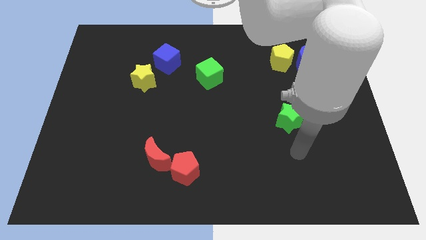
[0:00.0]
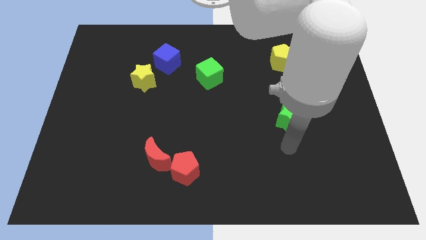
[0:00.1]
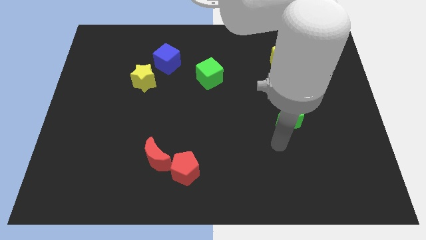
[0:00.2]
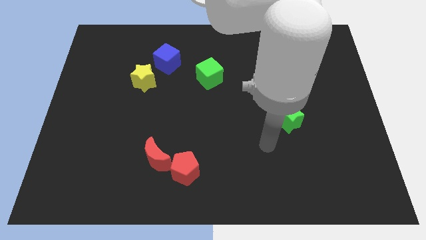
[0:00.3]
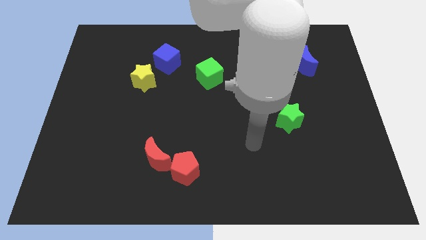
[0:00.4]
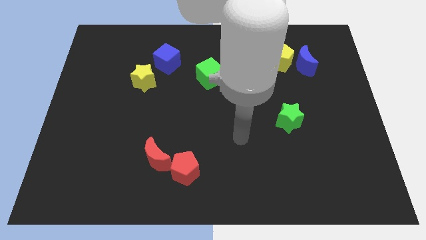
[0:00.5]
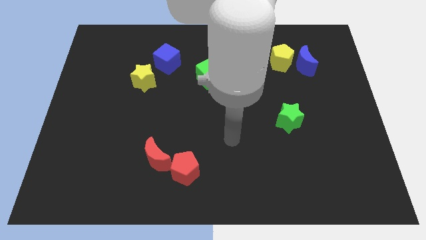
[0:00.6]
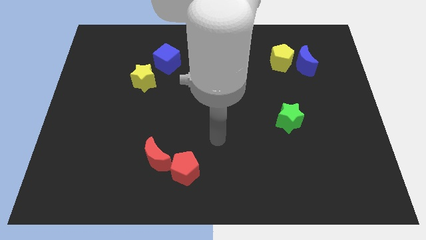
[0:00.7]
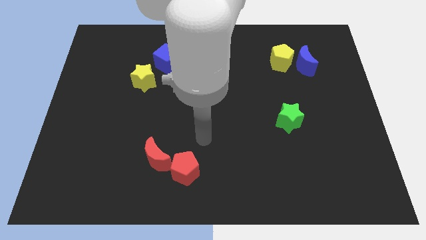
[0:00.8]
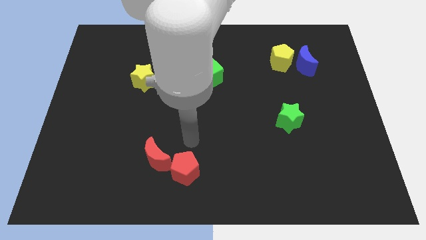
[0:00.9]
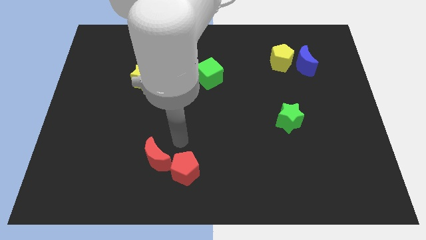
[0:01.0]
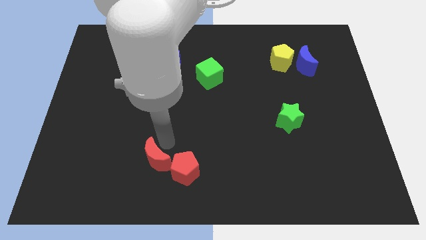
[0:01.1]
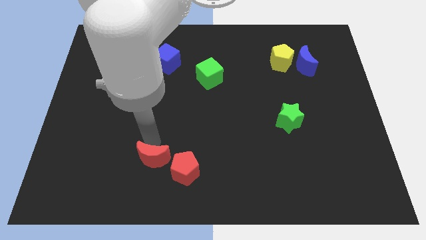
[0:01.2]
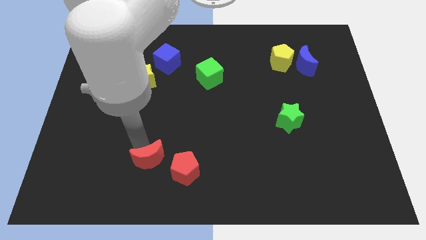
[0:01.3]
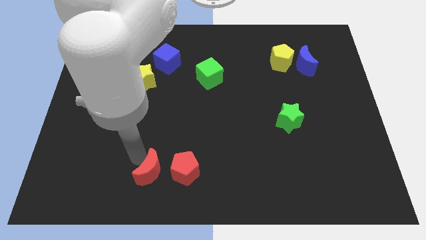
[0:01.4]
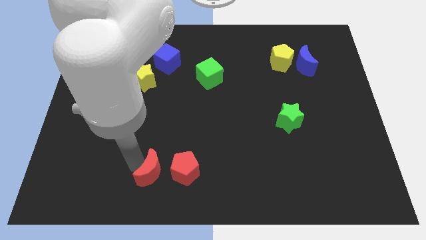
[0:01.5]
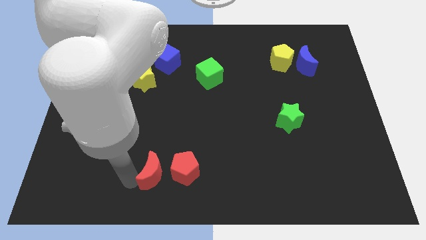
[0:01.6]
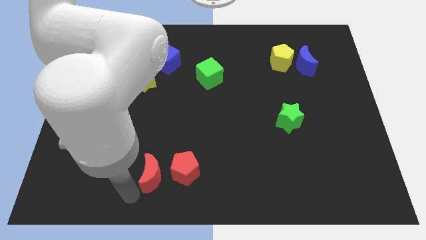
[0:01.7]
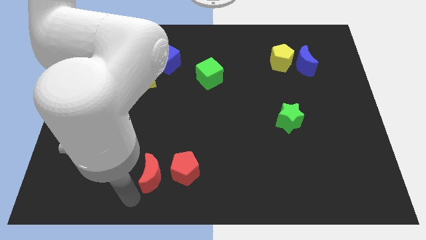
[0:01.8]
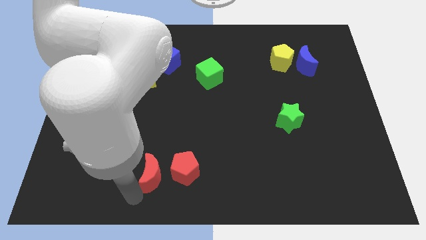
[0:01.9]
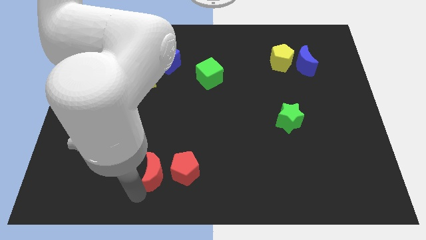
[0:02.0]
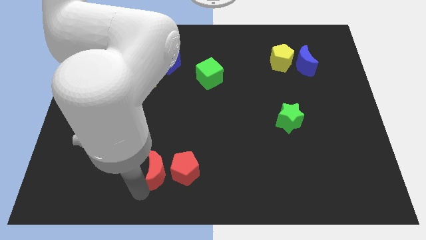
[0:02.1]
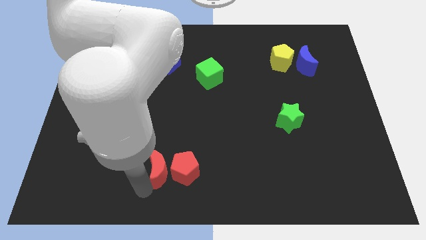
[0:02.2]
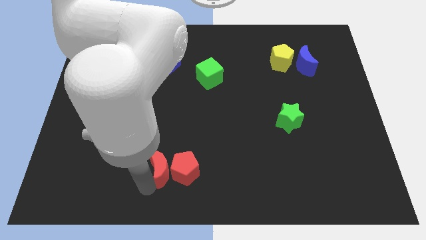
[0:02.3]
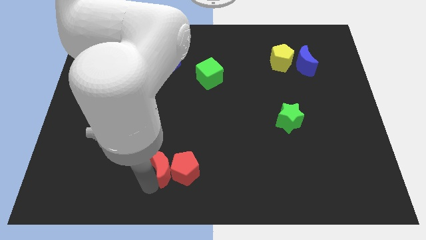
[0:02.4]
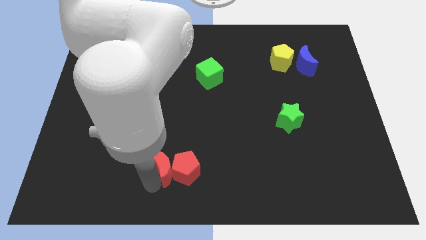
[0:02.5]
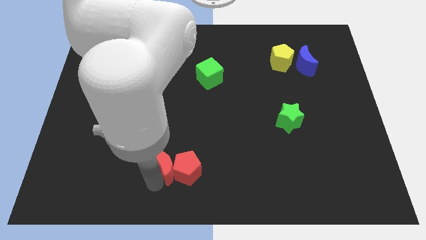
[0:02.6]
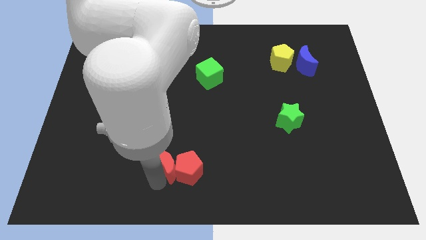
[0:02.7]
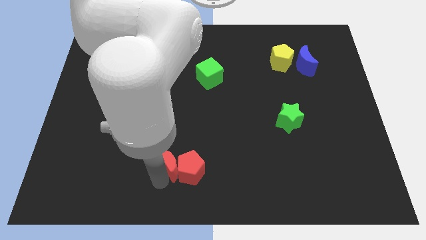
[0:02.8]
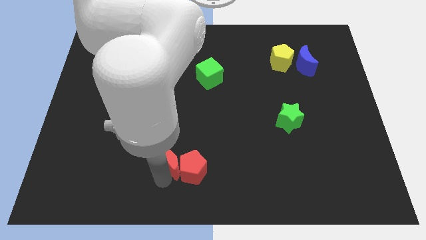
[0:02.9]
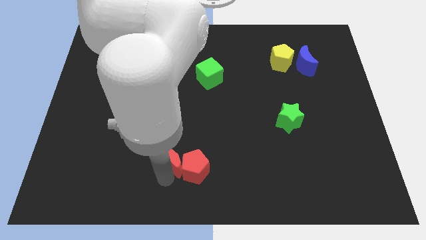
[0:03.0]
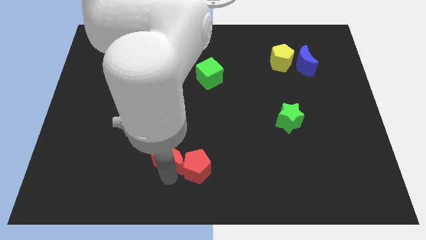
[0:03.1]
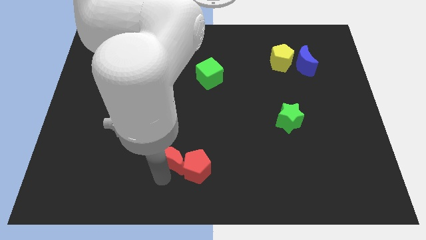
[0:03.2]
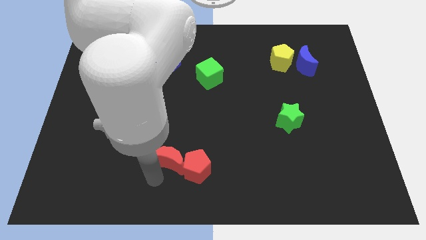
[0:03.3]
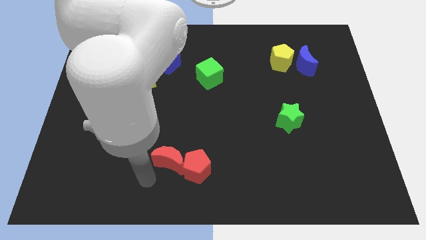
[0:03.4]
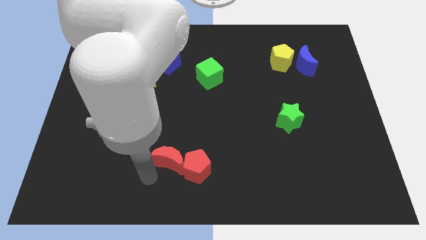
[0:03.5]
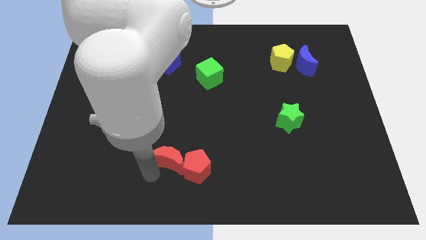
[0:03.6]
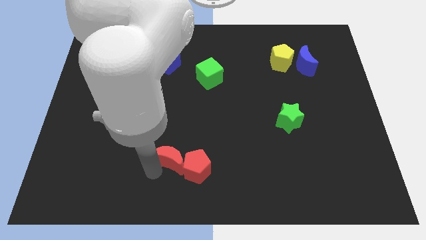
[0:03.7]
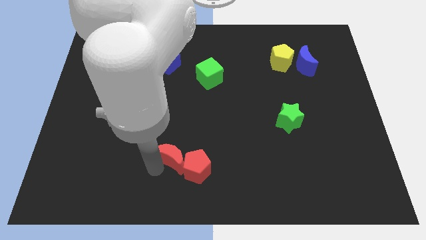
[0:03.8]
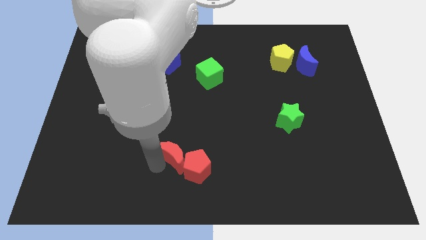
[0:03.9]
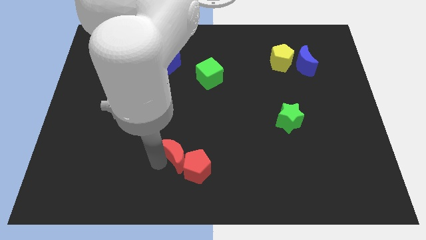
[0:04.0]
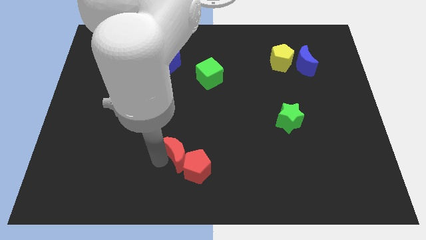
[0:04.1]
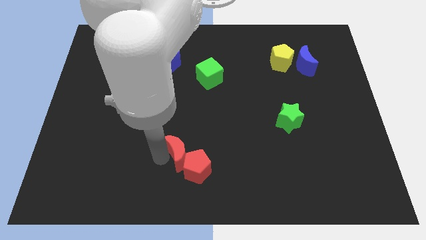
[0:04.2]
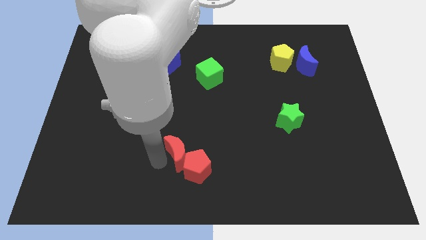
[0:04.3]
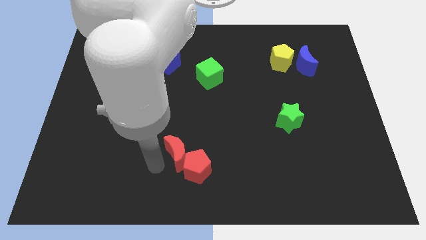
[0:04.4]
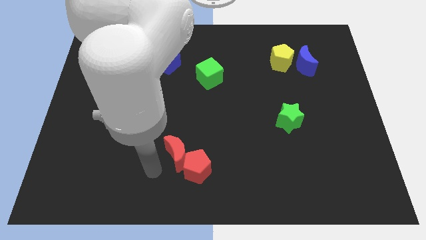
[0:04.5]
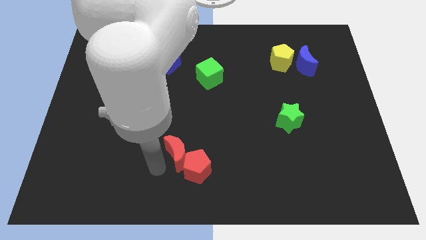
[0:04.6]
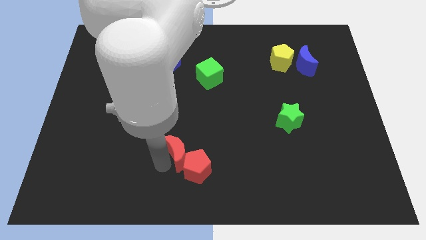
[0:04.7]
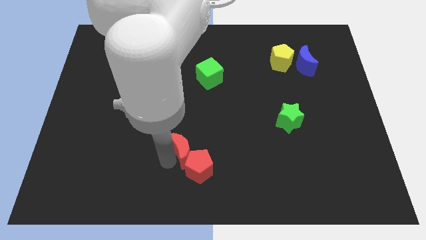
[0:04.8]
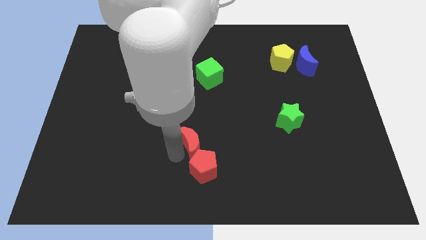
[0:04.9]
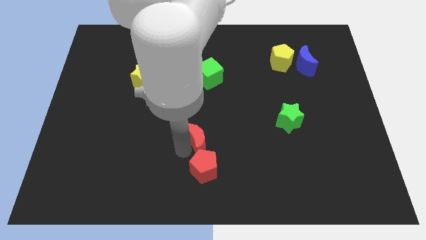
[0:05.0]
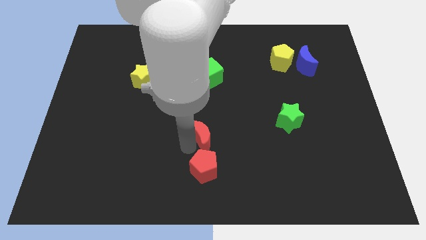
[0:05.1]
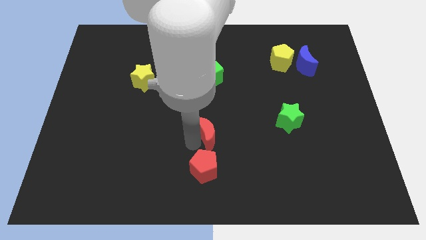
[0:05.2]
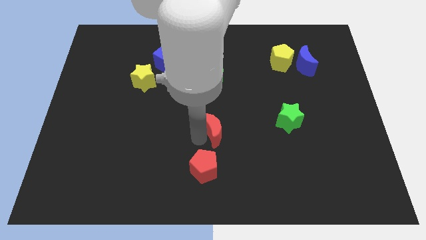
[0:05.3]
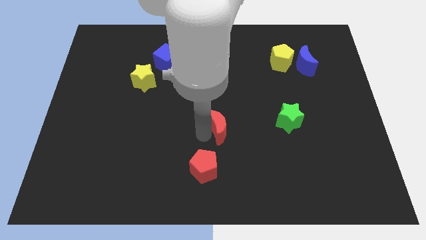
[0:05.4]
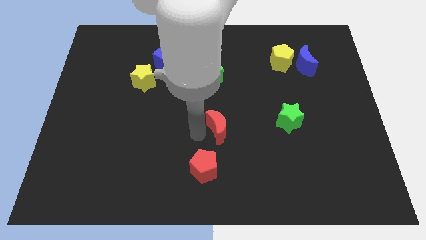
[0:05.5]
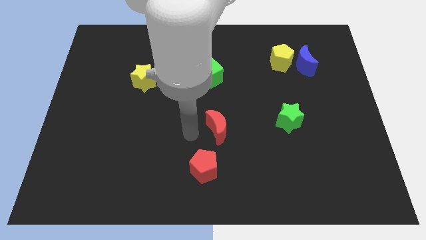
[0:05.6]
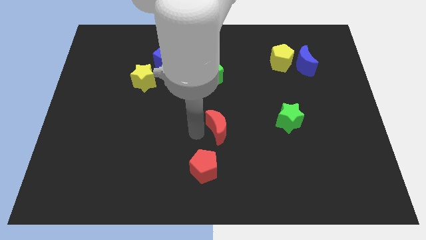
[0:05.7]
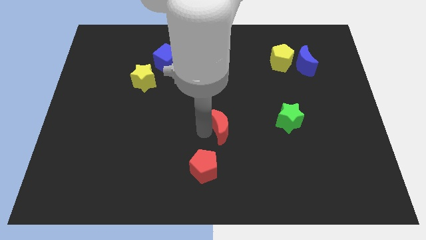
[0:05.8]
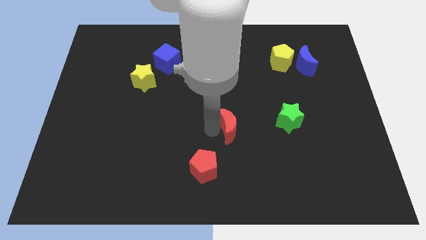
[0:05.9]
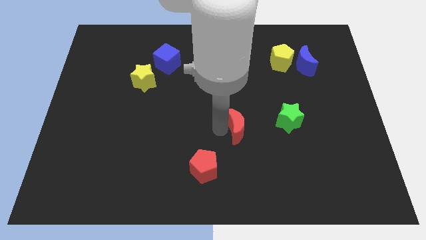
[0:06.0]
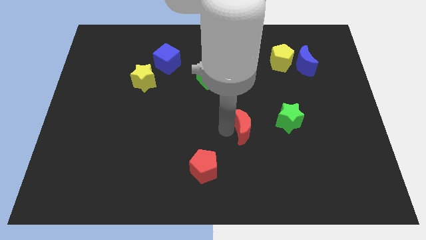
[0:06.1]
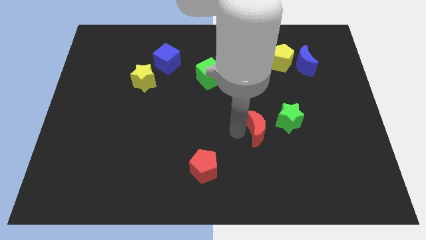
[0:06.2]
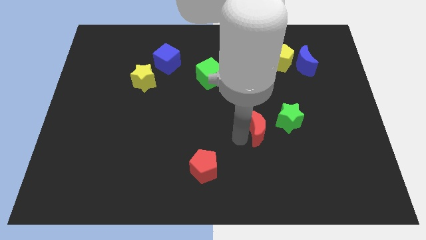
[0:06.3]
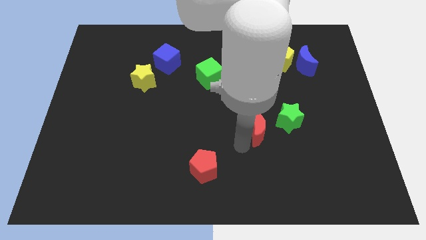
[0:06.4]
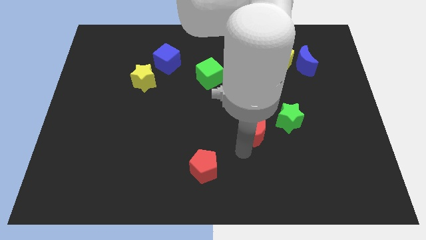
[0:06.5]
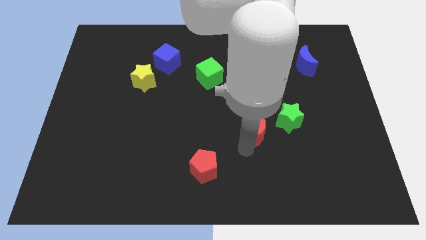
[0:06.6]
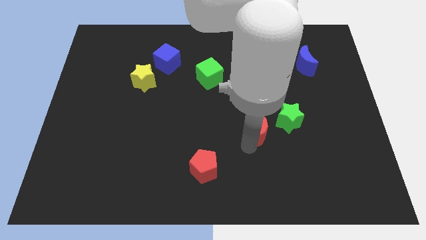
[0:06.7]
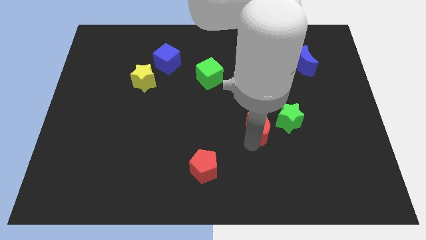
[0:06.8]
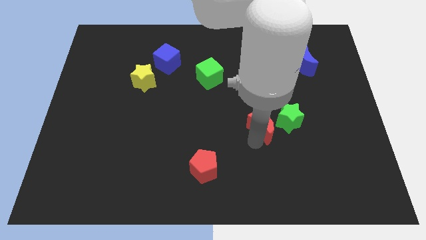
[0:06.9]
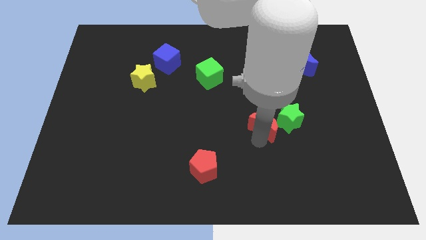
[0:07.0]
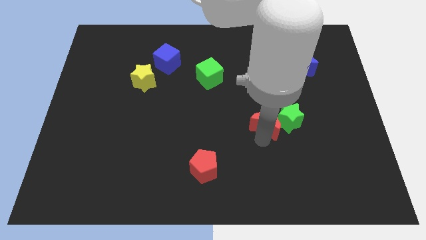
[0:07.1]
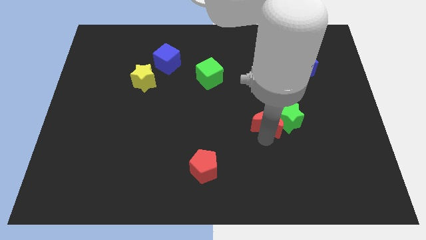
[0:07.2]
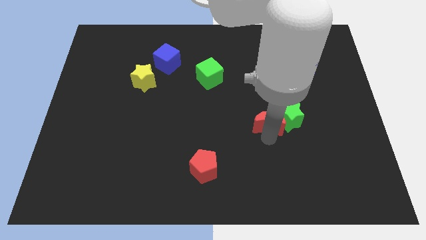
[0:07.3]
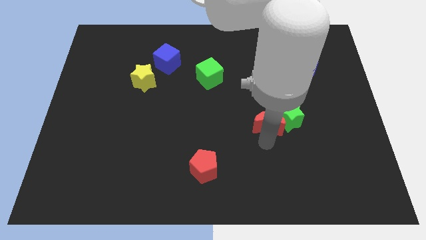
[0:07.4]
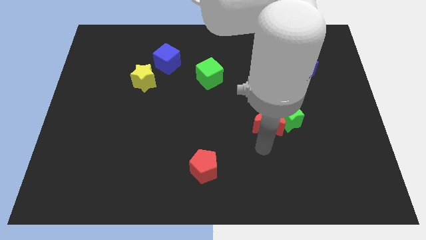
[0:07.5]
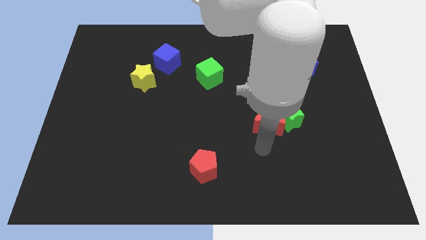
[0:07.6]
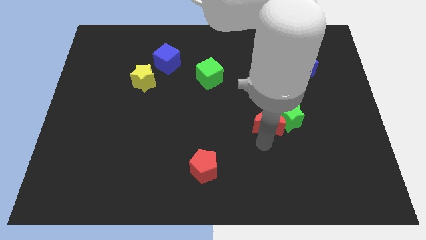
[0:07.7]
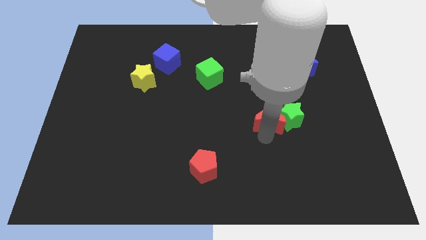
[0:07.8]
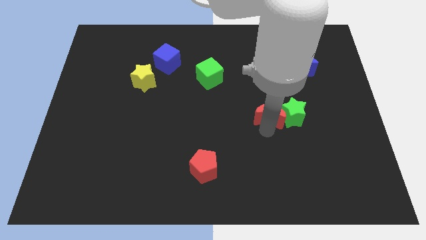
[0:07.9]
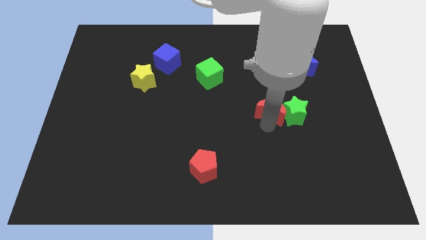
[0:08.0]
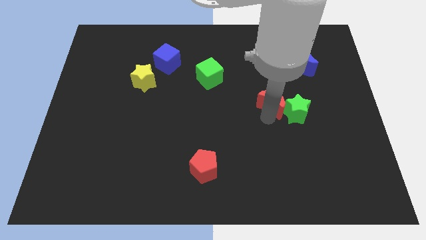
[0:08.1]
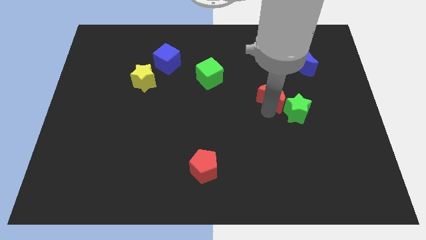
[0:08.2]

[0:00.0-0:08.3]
slide the red moon to the bottom side of the yellow pentagon
